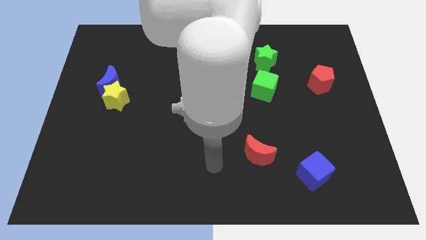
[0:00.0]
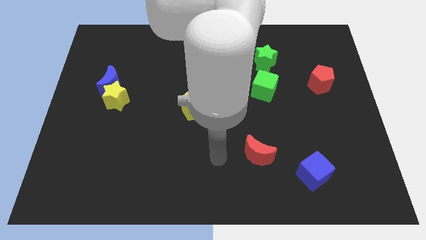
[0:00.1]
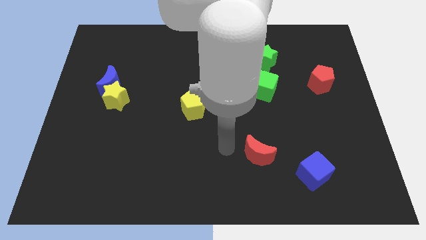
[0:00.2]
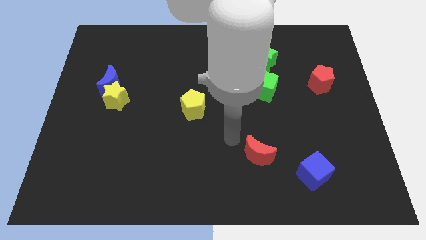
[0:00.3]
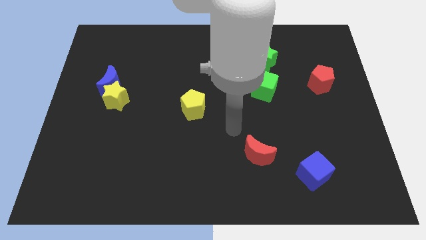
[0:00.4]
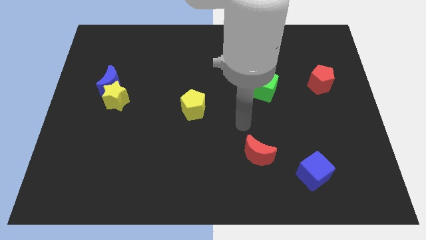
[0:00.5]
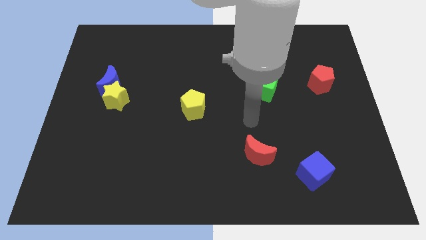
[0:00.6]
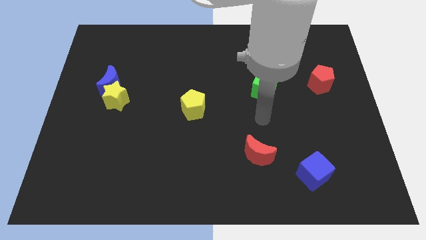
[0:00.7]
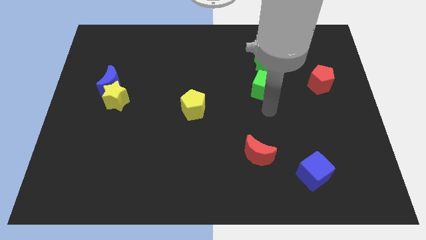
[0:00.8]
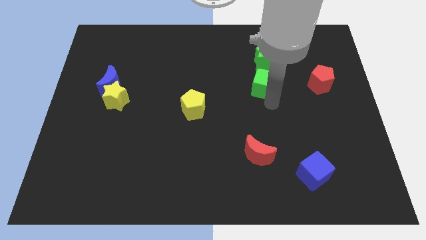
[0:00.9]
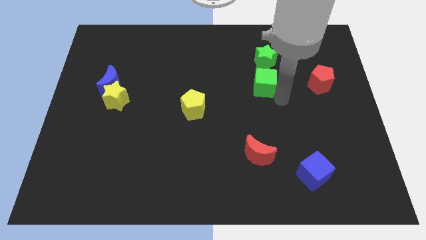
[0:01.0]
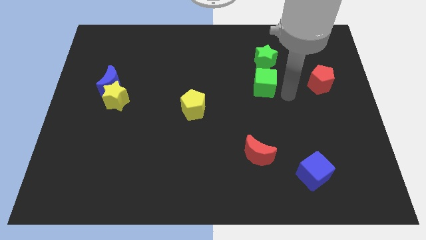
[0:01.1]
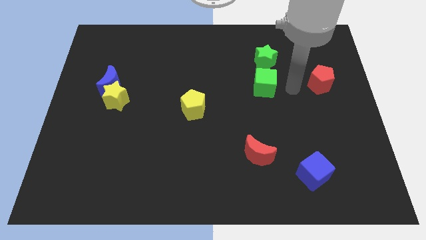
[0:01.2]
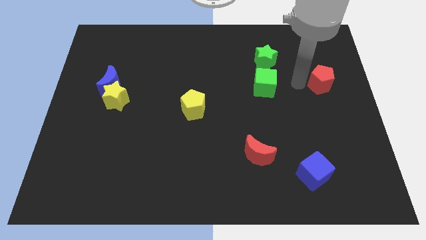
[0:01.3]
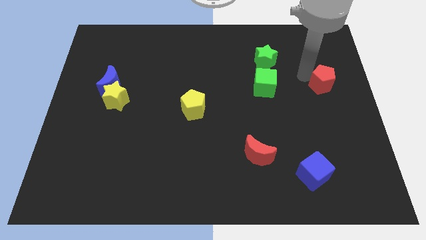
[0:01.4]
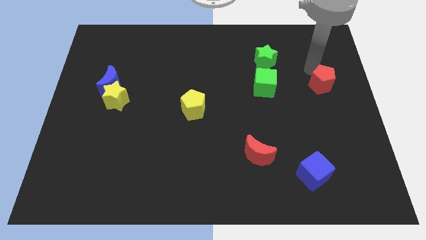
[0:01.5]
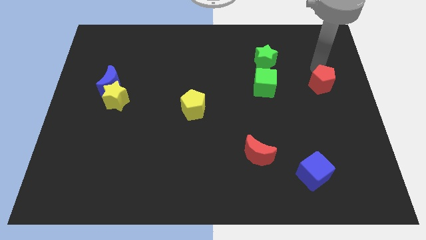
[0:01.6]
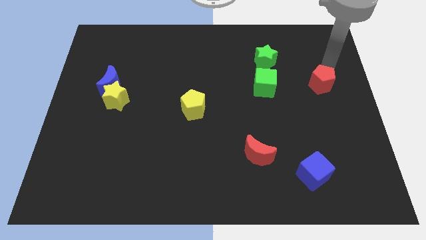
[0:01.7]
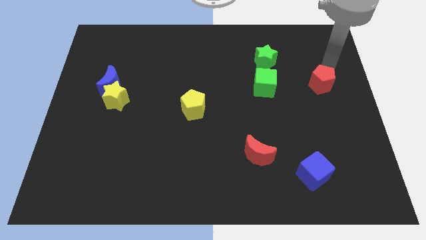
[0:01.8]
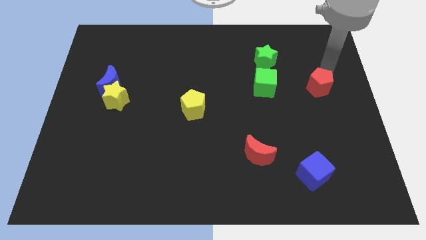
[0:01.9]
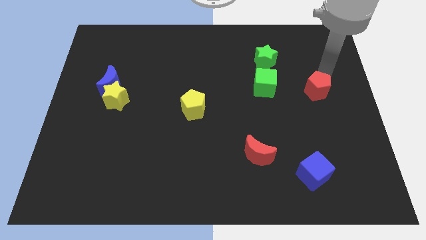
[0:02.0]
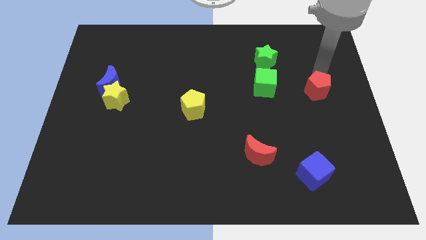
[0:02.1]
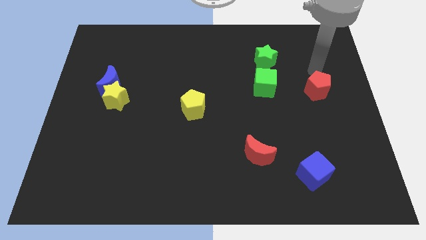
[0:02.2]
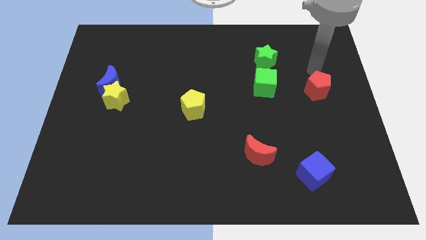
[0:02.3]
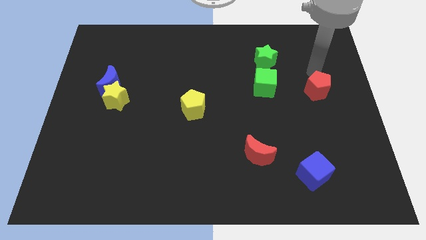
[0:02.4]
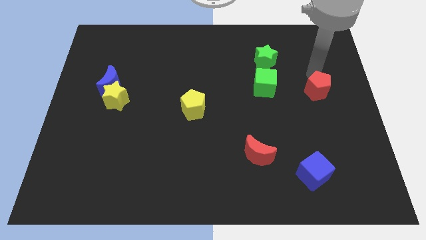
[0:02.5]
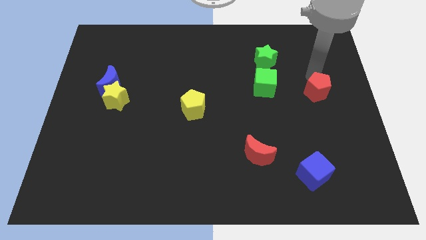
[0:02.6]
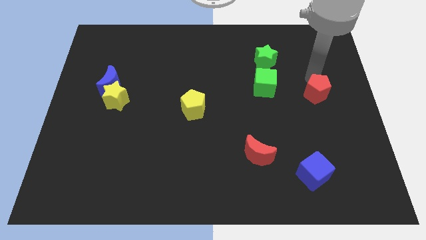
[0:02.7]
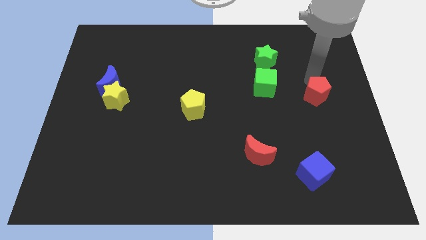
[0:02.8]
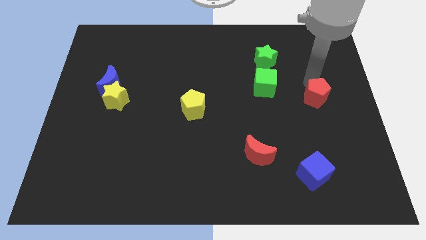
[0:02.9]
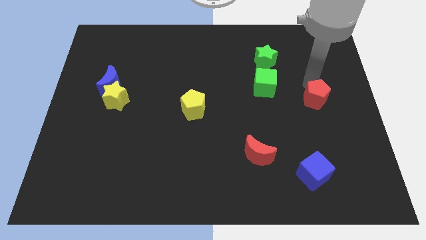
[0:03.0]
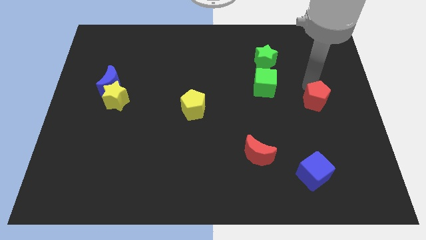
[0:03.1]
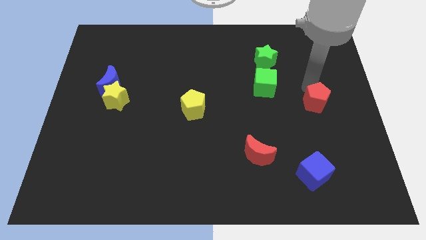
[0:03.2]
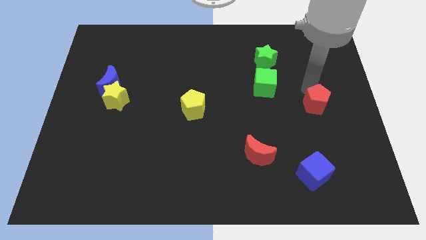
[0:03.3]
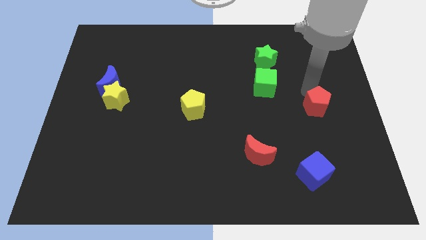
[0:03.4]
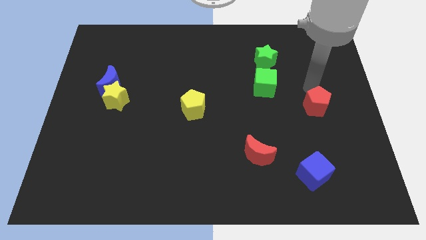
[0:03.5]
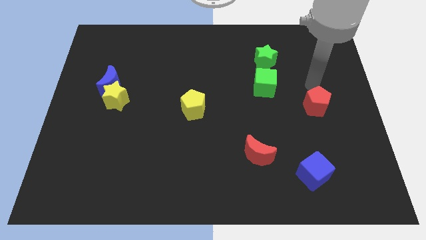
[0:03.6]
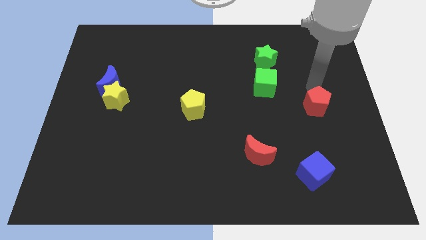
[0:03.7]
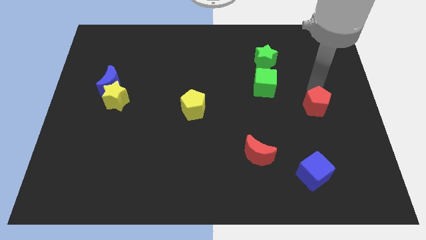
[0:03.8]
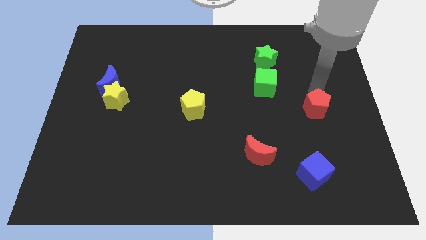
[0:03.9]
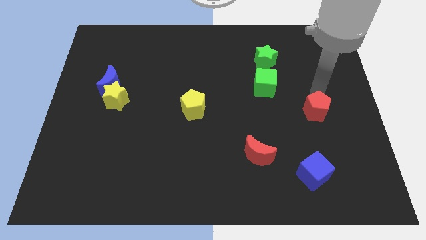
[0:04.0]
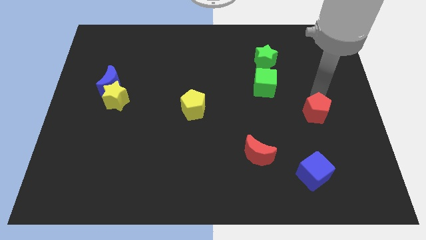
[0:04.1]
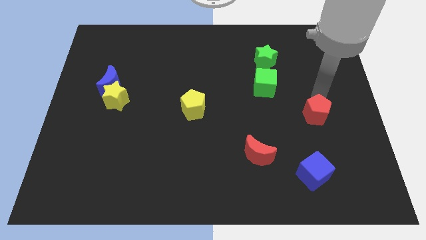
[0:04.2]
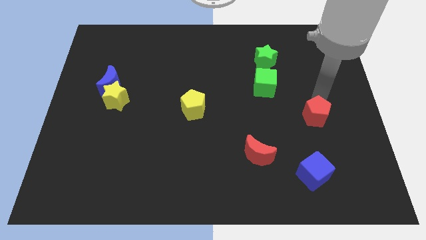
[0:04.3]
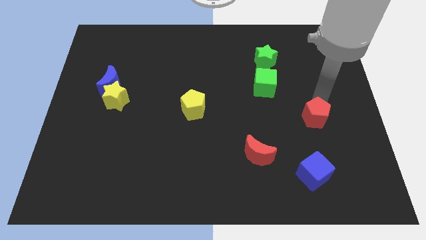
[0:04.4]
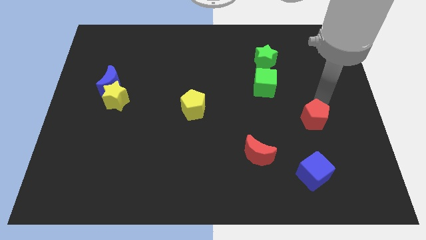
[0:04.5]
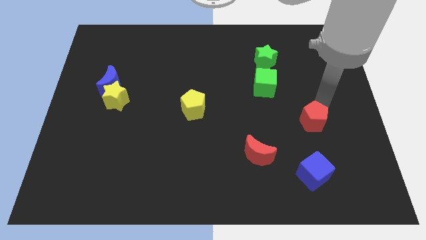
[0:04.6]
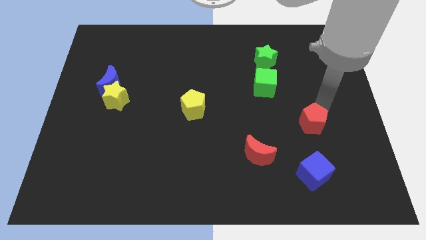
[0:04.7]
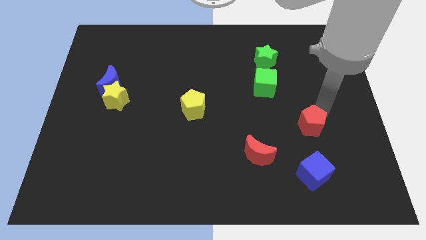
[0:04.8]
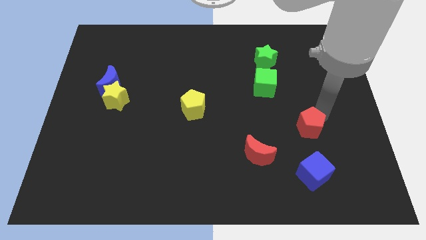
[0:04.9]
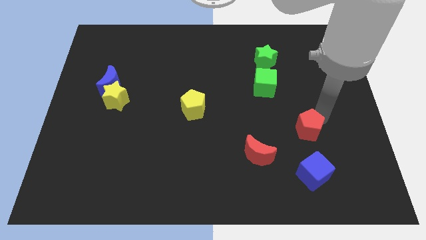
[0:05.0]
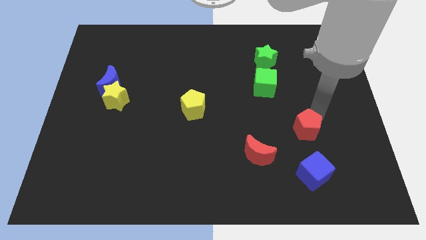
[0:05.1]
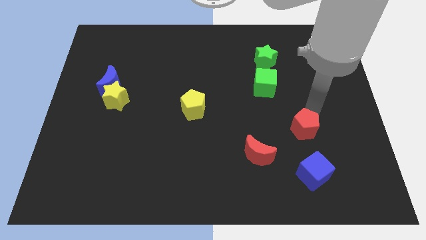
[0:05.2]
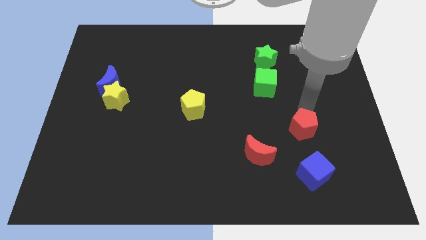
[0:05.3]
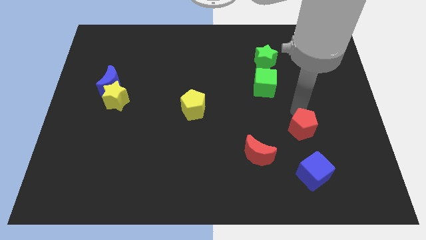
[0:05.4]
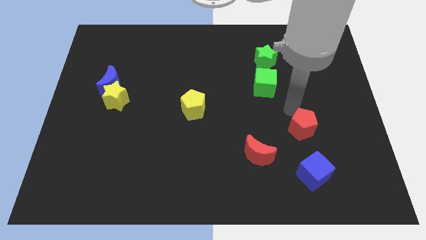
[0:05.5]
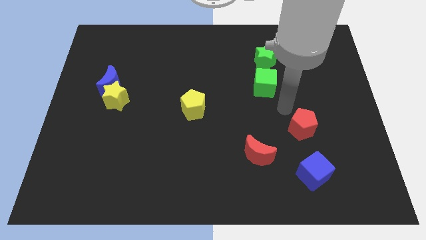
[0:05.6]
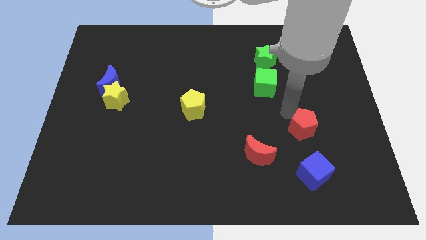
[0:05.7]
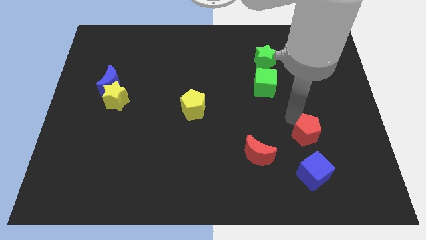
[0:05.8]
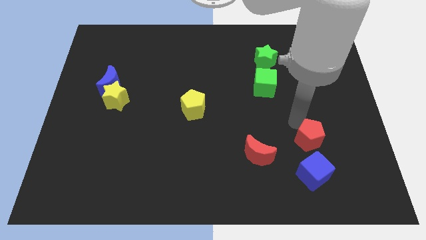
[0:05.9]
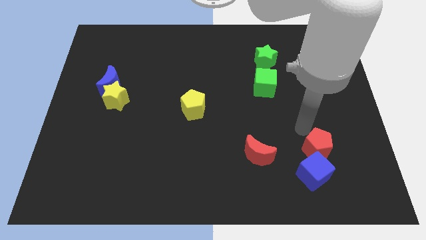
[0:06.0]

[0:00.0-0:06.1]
put the red pentagon next to the blue cube
